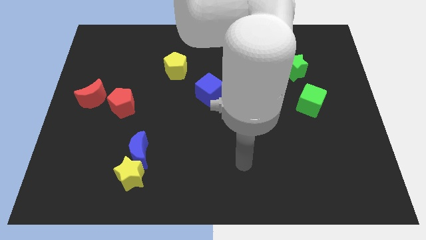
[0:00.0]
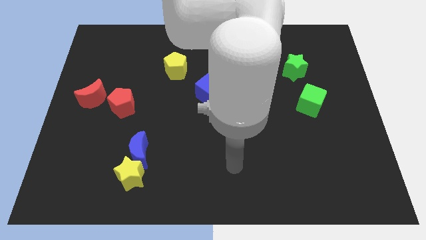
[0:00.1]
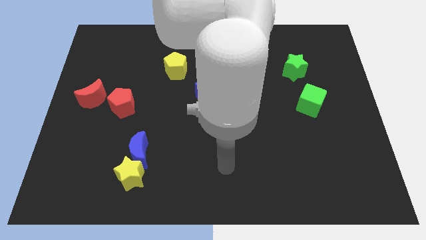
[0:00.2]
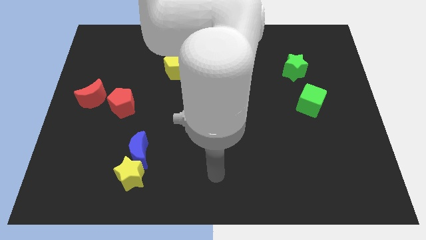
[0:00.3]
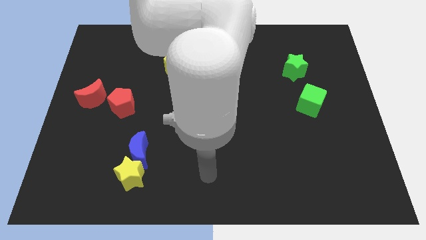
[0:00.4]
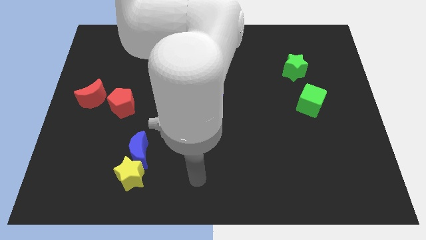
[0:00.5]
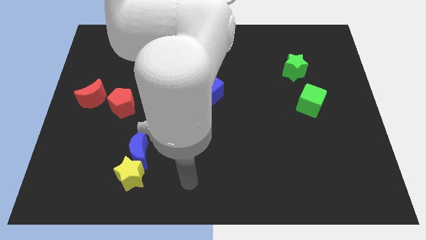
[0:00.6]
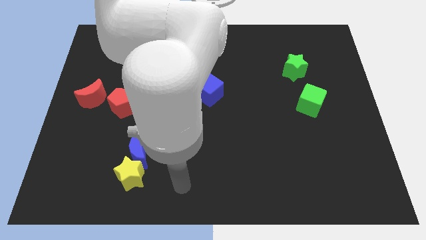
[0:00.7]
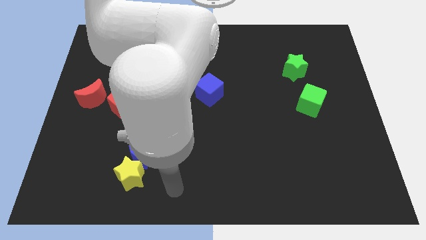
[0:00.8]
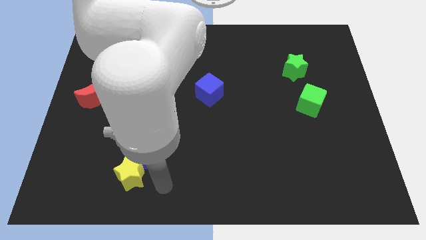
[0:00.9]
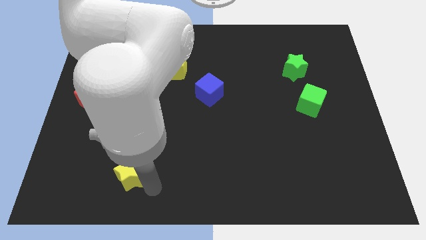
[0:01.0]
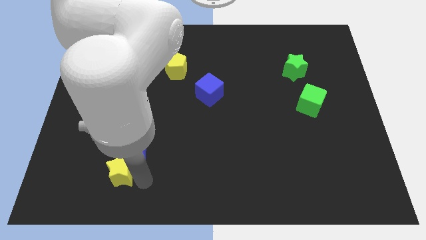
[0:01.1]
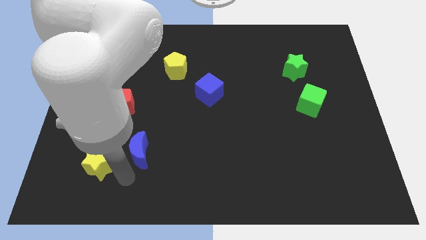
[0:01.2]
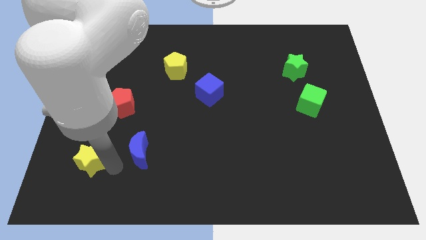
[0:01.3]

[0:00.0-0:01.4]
pull the blue moon apart from the yellow star

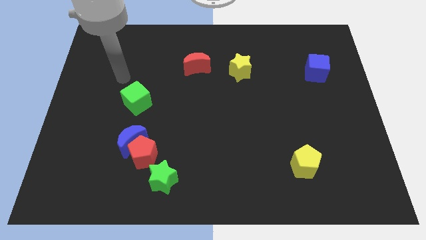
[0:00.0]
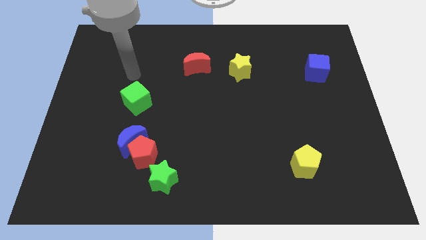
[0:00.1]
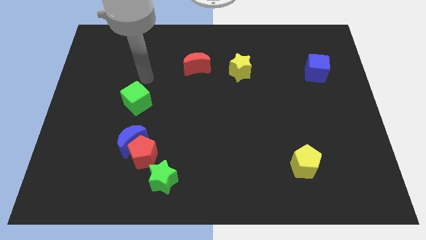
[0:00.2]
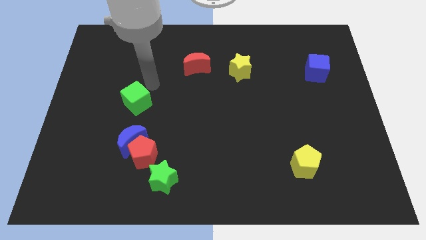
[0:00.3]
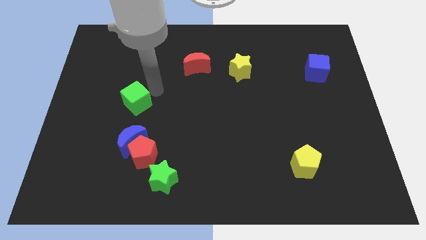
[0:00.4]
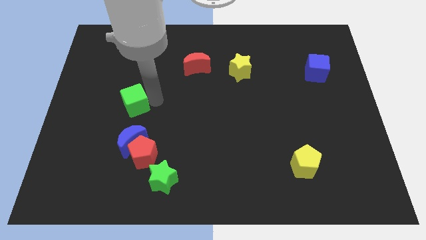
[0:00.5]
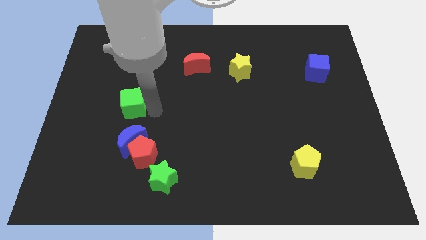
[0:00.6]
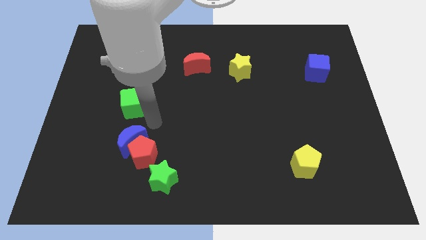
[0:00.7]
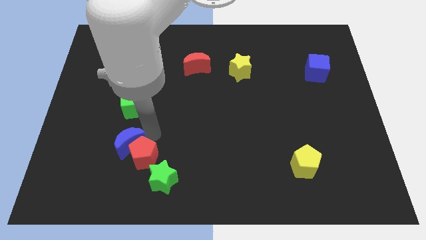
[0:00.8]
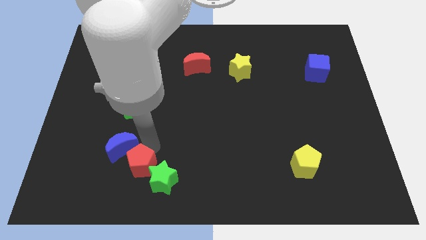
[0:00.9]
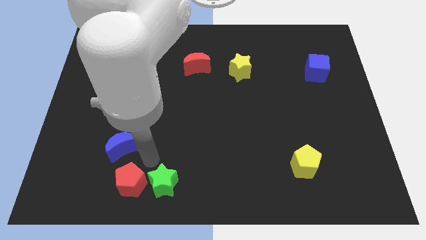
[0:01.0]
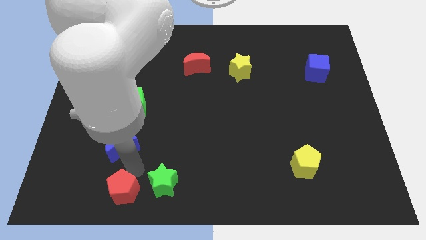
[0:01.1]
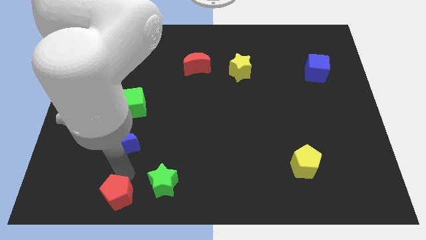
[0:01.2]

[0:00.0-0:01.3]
pull the blue moon apart from the red pentagon

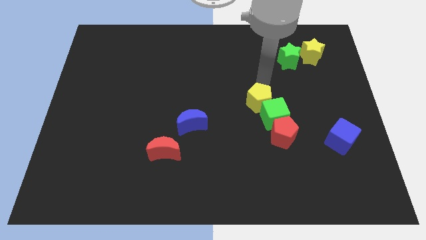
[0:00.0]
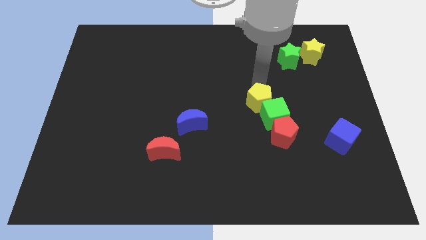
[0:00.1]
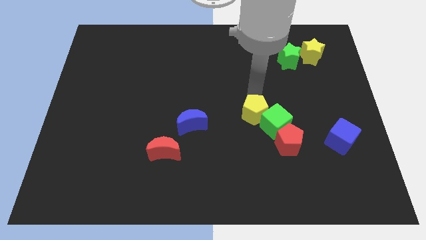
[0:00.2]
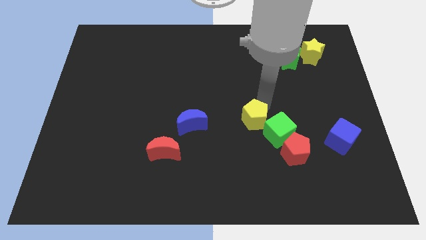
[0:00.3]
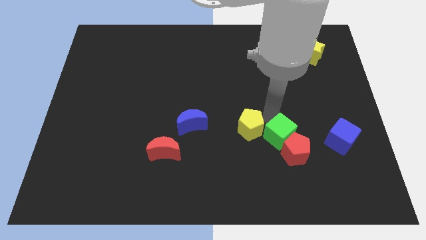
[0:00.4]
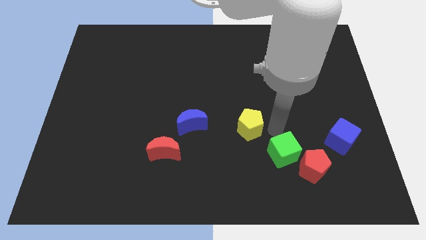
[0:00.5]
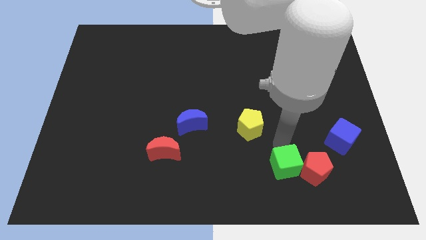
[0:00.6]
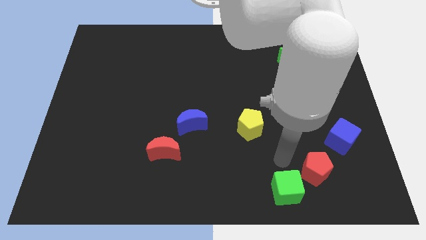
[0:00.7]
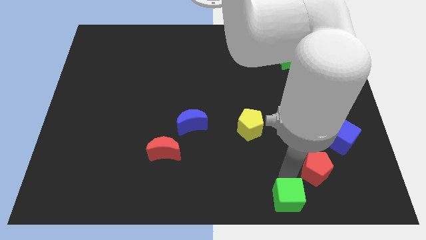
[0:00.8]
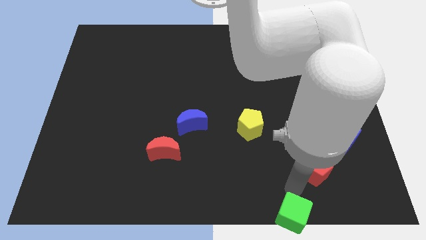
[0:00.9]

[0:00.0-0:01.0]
move the red pentagon away from the green cube

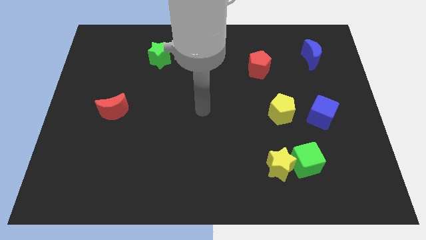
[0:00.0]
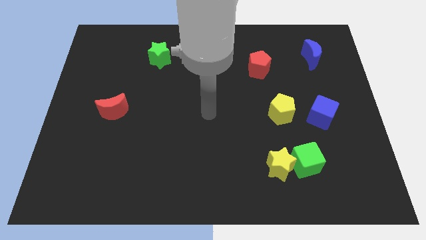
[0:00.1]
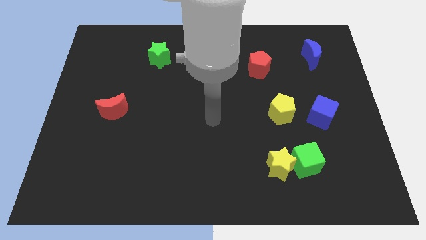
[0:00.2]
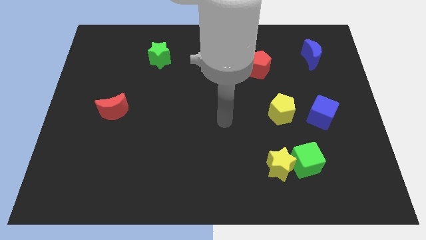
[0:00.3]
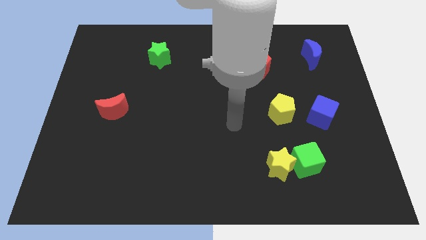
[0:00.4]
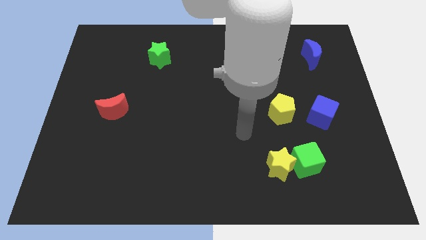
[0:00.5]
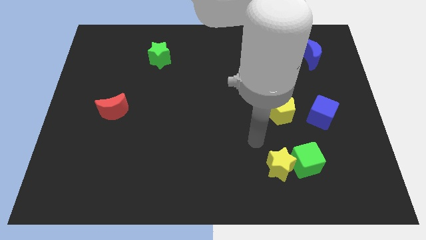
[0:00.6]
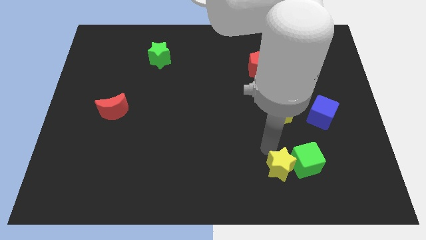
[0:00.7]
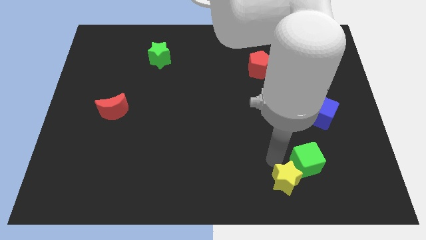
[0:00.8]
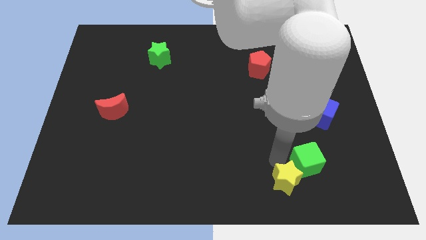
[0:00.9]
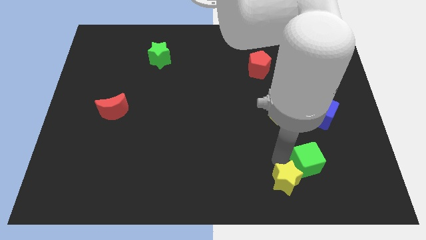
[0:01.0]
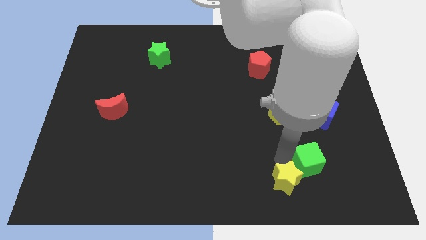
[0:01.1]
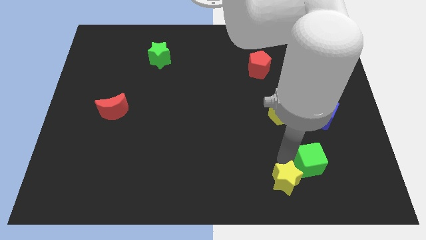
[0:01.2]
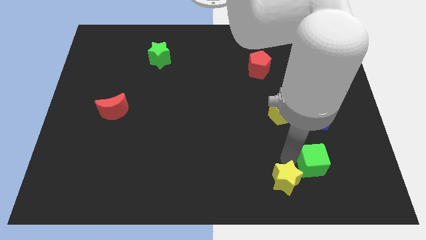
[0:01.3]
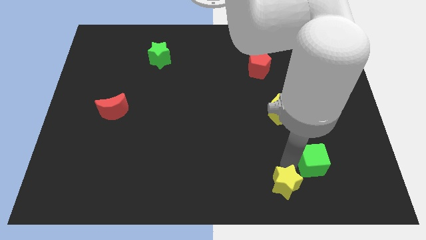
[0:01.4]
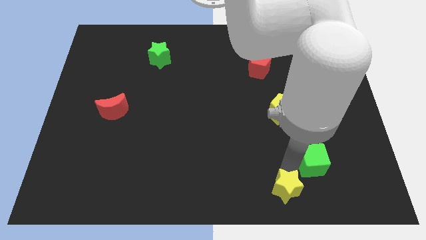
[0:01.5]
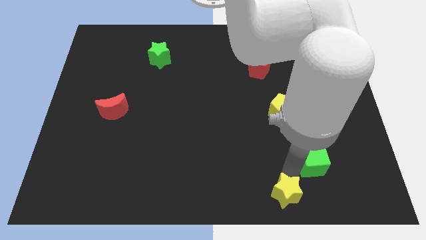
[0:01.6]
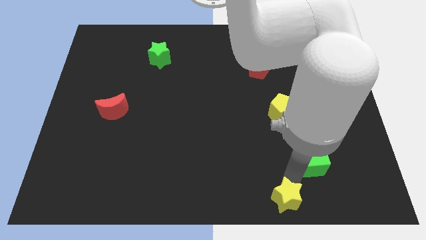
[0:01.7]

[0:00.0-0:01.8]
separate the green cube from the yellow star

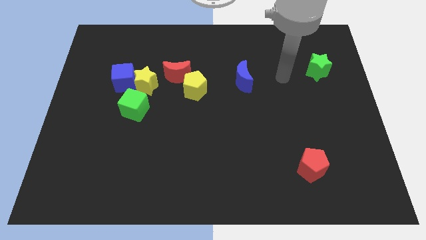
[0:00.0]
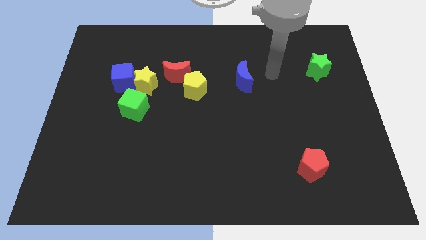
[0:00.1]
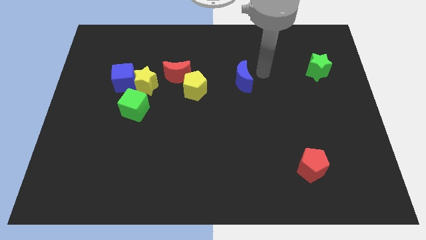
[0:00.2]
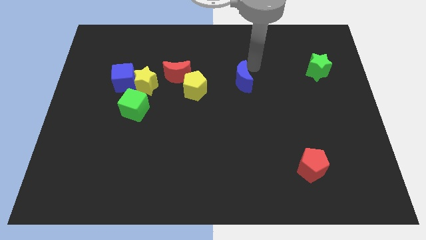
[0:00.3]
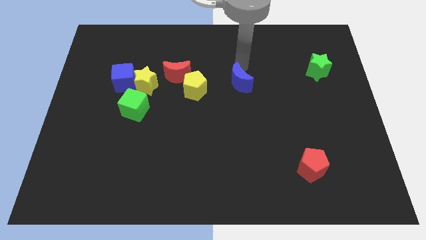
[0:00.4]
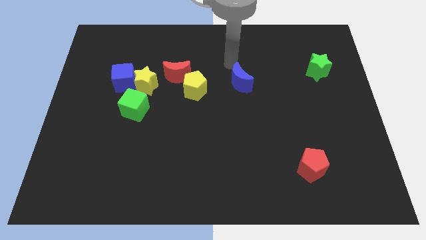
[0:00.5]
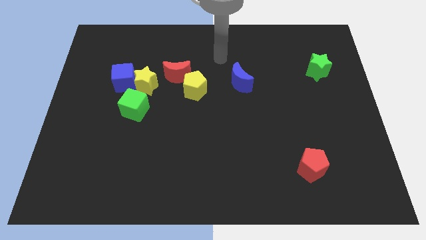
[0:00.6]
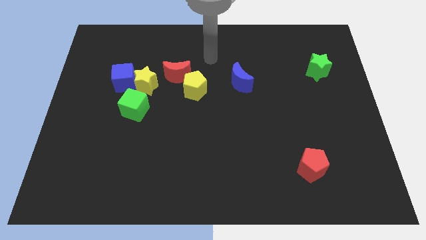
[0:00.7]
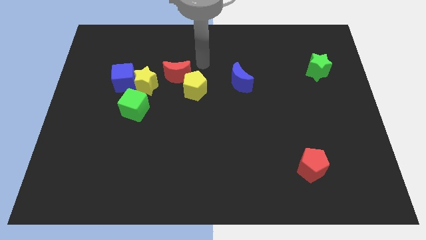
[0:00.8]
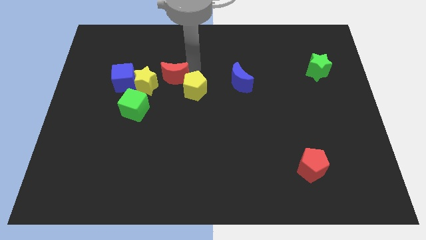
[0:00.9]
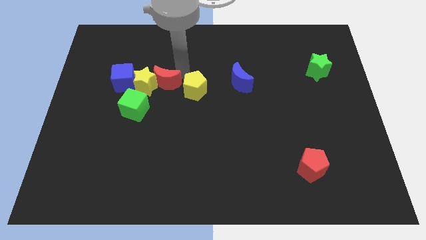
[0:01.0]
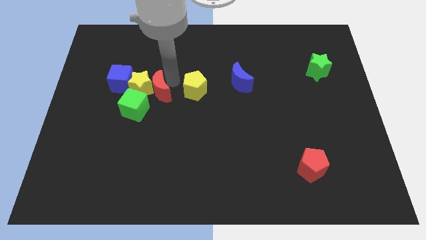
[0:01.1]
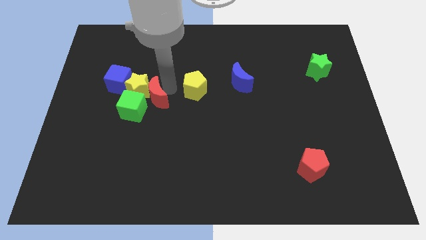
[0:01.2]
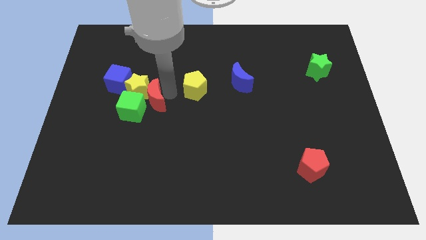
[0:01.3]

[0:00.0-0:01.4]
move the yellow pentagon away from the red moon

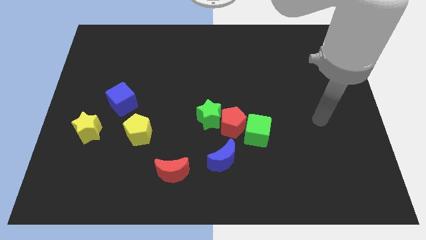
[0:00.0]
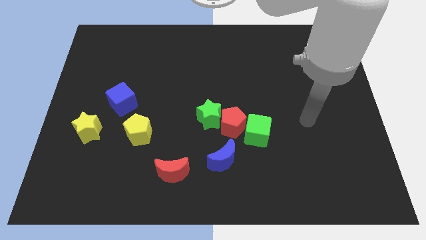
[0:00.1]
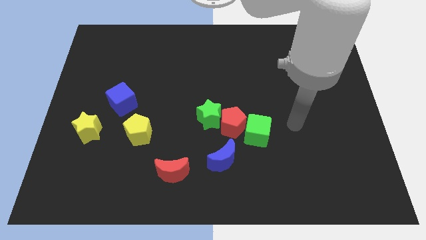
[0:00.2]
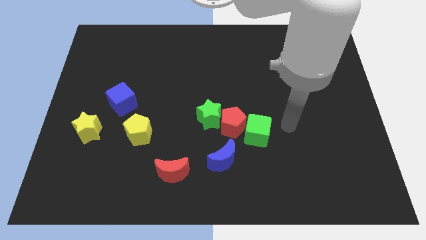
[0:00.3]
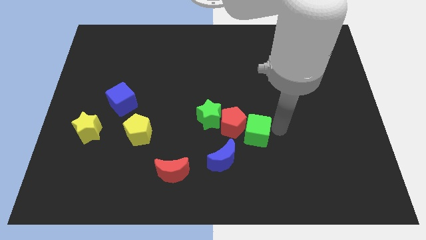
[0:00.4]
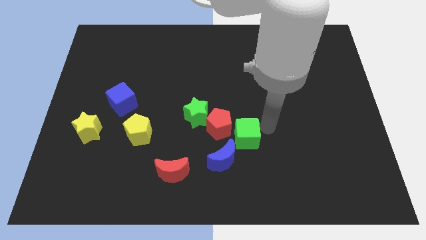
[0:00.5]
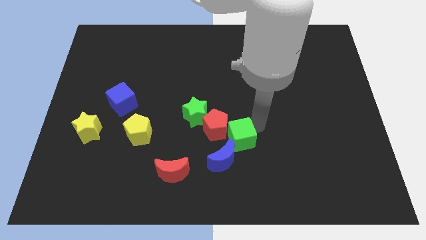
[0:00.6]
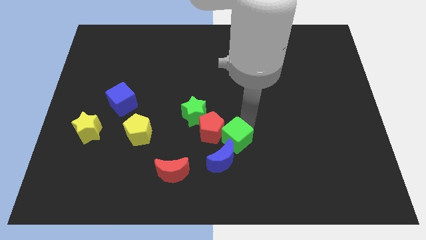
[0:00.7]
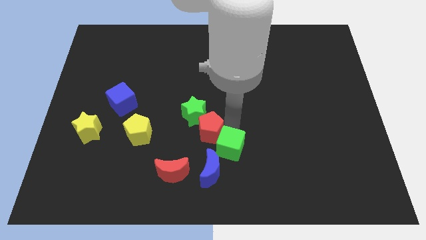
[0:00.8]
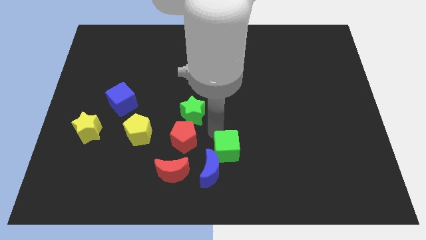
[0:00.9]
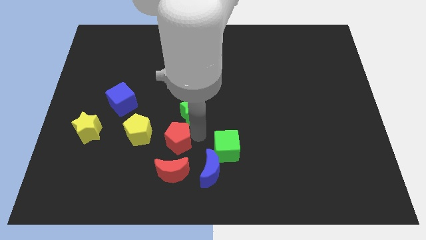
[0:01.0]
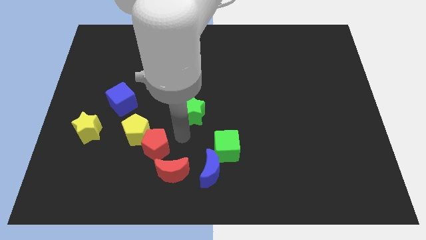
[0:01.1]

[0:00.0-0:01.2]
move the green star away from the red pentagon

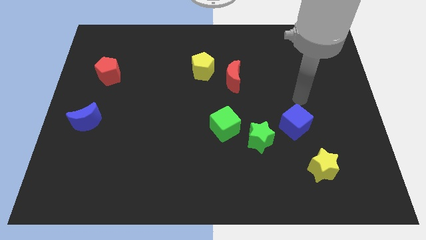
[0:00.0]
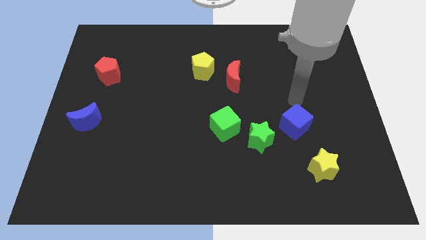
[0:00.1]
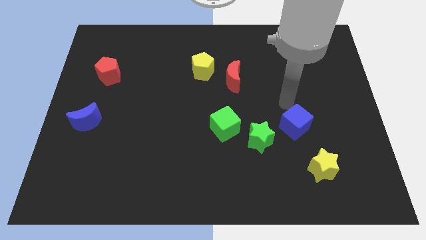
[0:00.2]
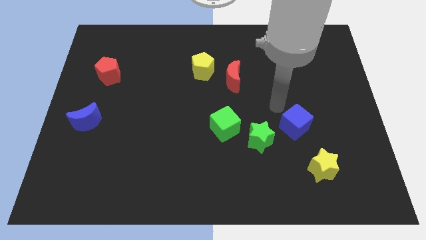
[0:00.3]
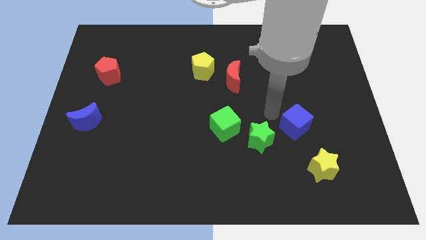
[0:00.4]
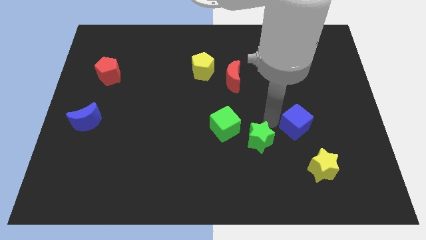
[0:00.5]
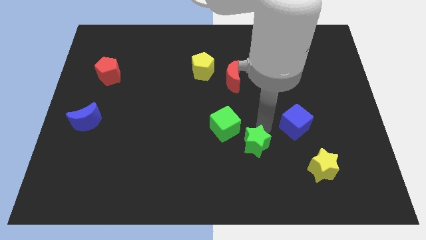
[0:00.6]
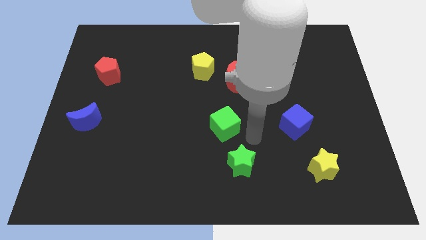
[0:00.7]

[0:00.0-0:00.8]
move the green cube away from the green star

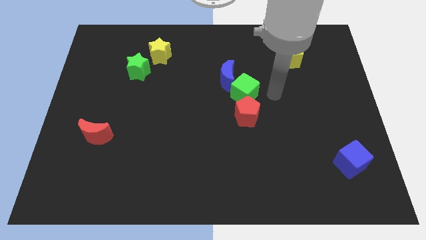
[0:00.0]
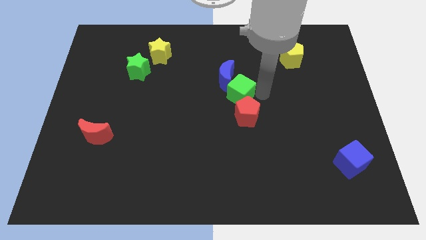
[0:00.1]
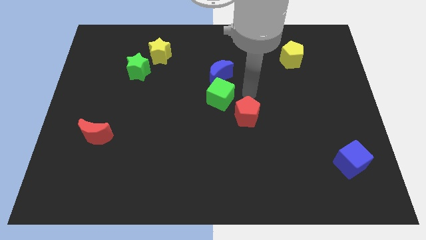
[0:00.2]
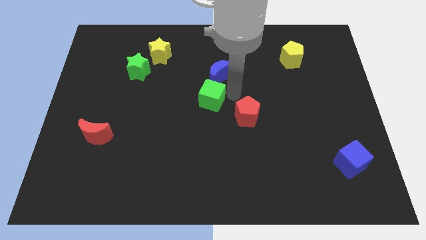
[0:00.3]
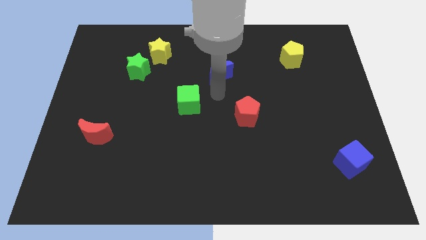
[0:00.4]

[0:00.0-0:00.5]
move the blue moon away from the green cube
